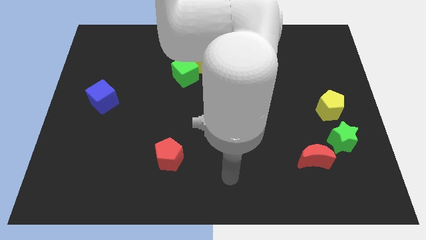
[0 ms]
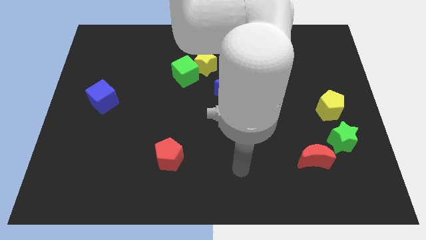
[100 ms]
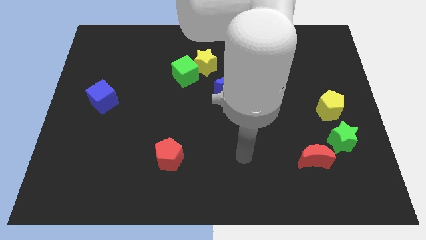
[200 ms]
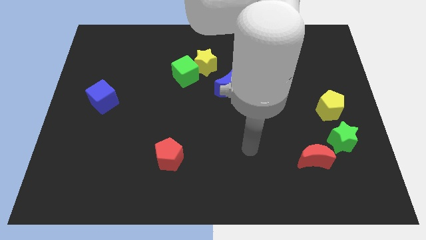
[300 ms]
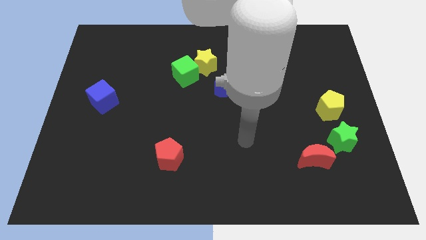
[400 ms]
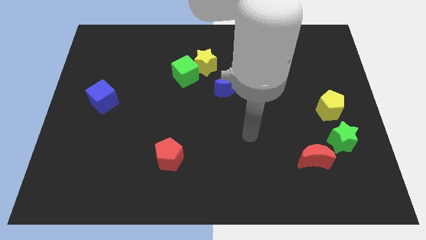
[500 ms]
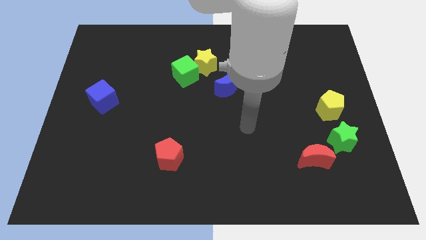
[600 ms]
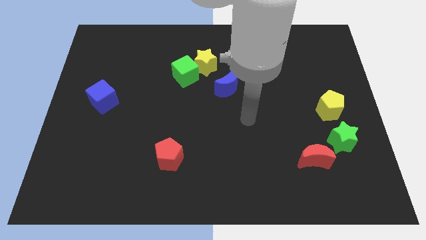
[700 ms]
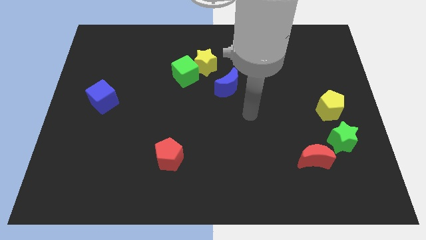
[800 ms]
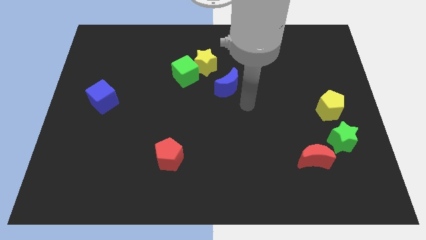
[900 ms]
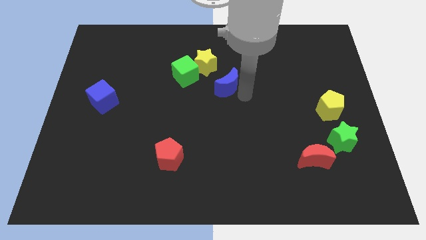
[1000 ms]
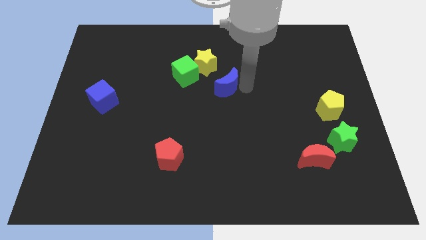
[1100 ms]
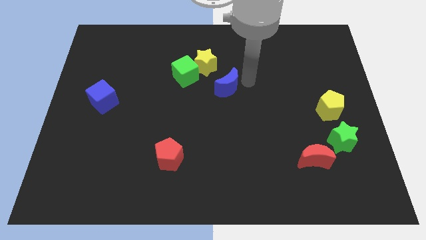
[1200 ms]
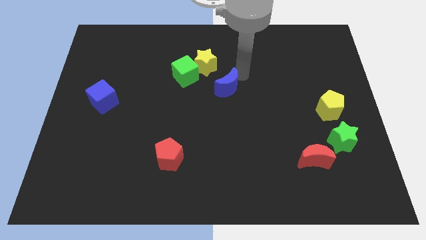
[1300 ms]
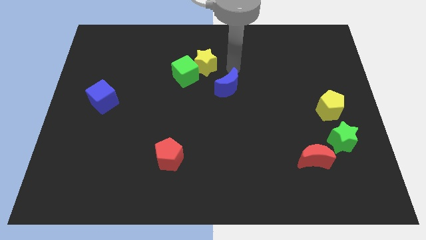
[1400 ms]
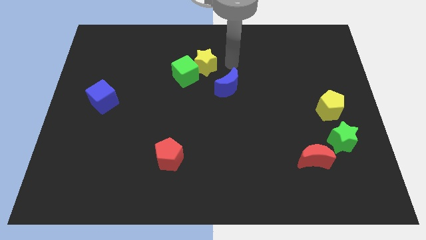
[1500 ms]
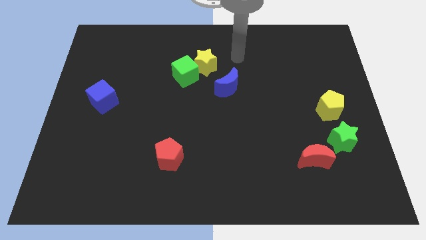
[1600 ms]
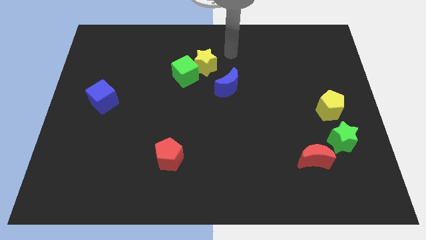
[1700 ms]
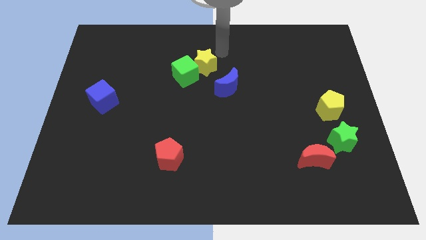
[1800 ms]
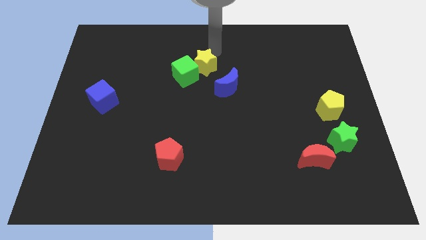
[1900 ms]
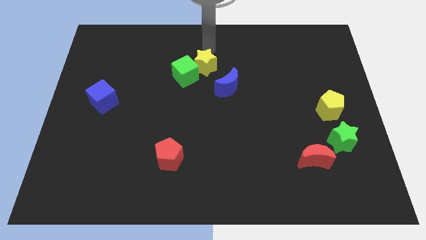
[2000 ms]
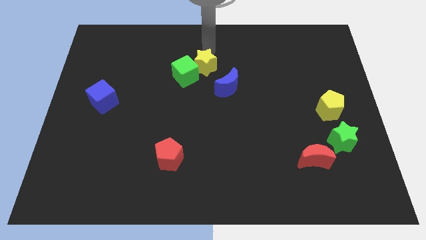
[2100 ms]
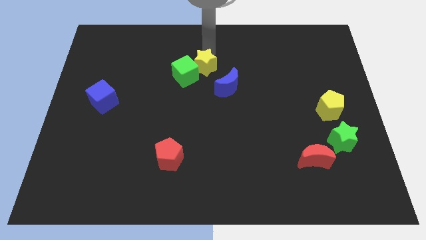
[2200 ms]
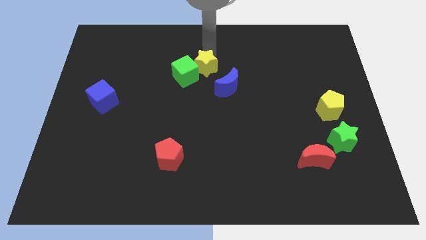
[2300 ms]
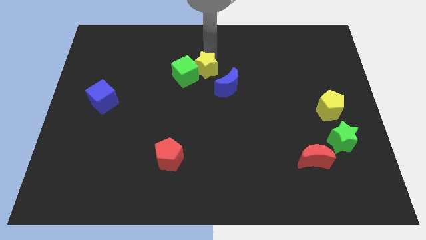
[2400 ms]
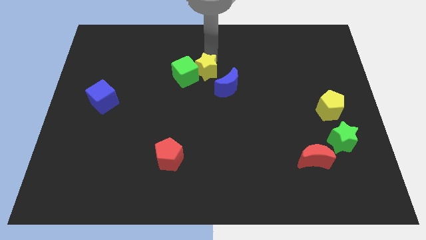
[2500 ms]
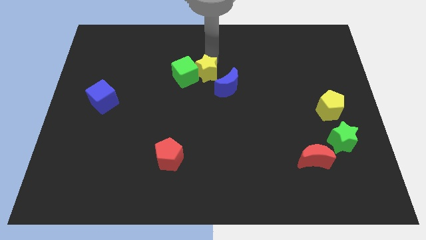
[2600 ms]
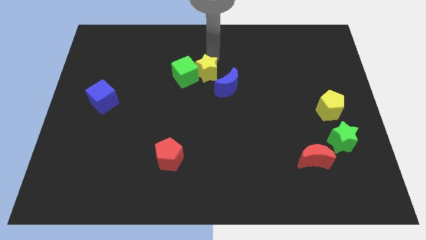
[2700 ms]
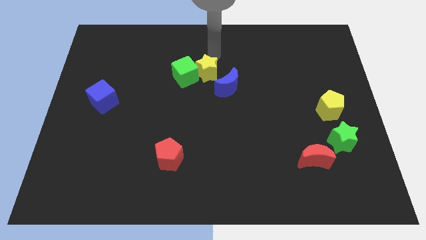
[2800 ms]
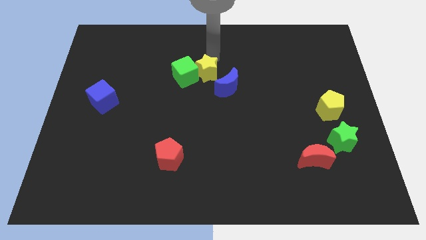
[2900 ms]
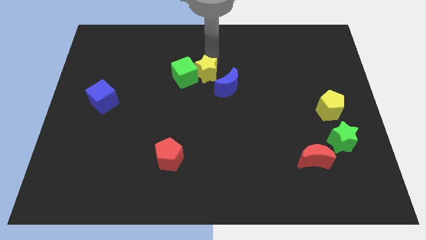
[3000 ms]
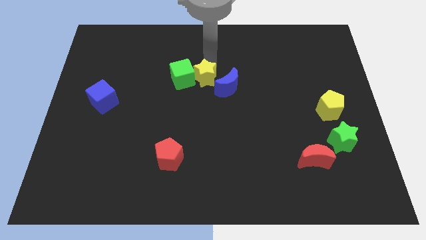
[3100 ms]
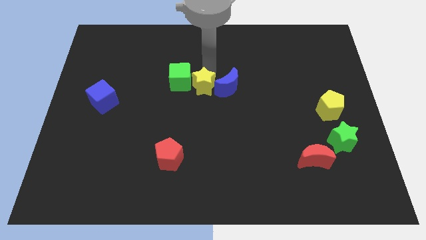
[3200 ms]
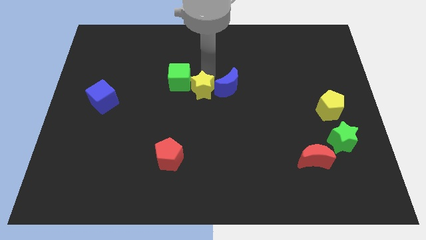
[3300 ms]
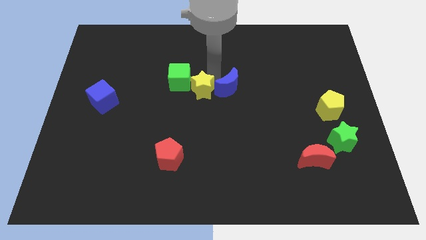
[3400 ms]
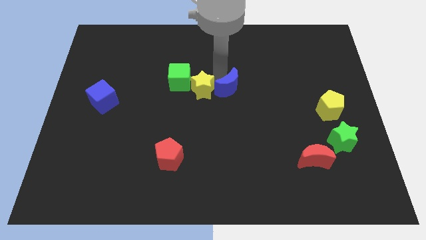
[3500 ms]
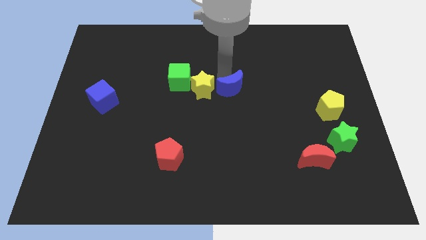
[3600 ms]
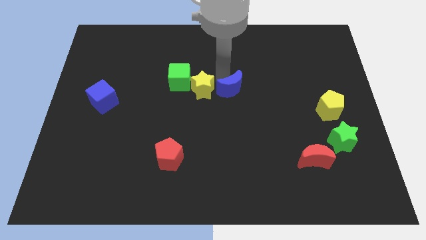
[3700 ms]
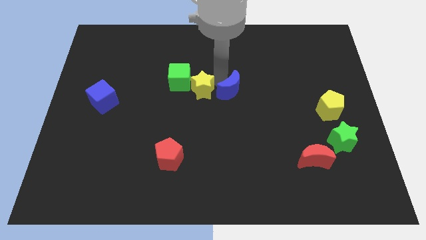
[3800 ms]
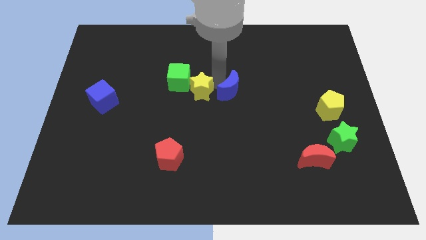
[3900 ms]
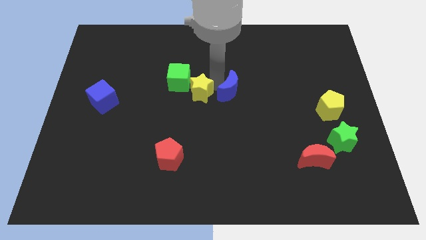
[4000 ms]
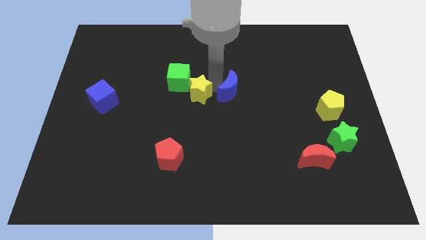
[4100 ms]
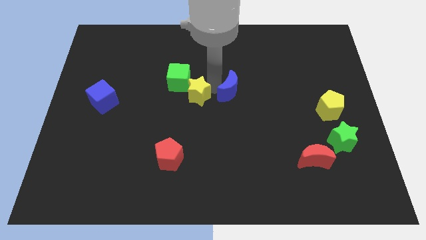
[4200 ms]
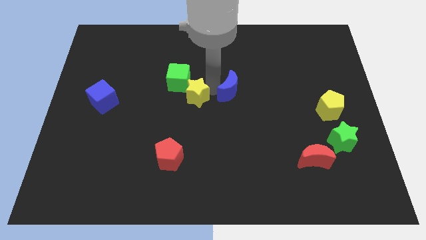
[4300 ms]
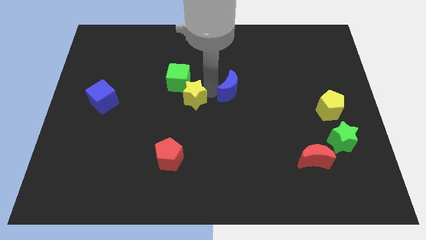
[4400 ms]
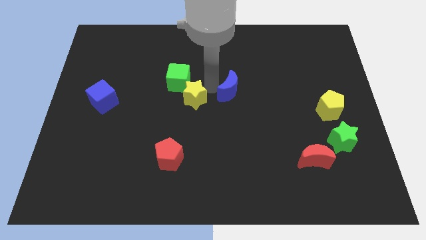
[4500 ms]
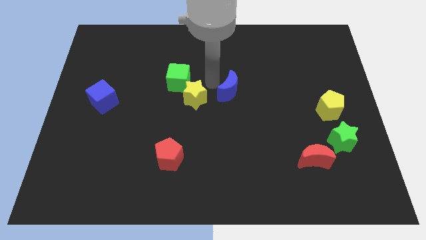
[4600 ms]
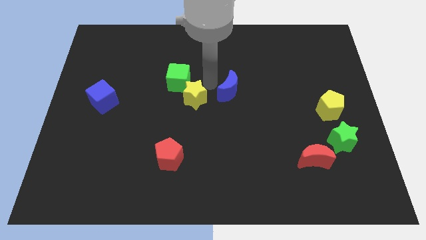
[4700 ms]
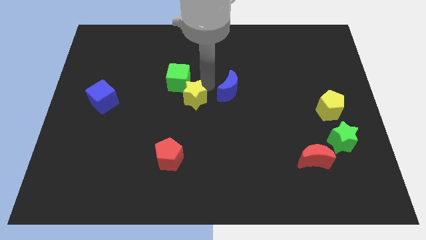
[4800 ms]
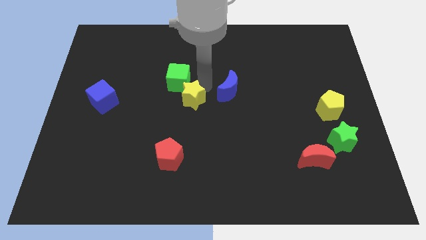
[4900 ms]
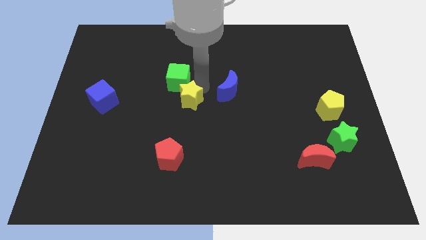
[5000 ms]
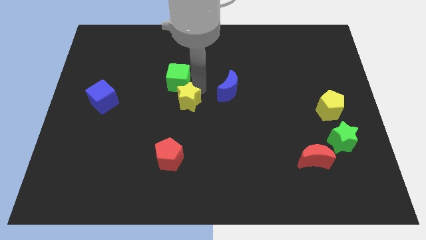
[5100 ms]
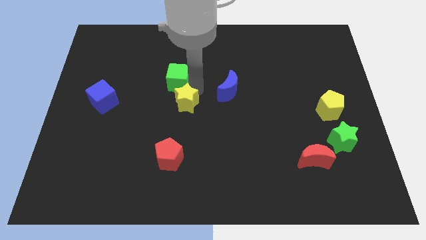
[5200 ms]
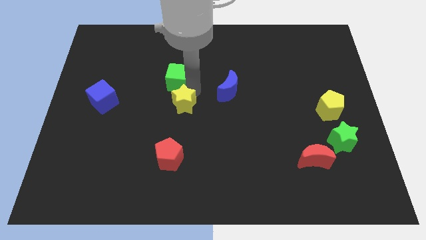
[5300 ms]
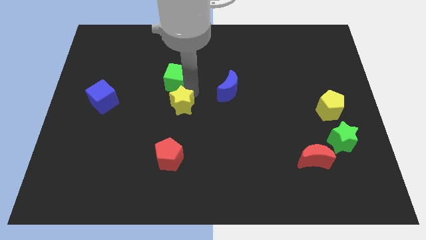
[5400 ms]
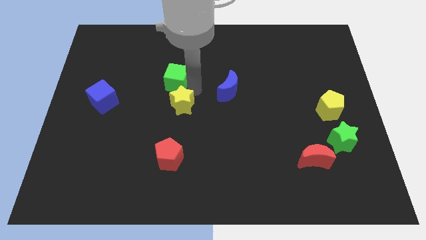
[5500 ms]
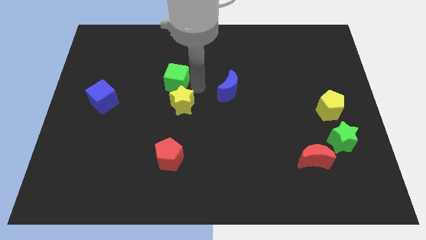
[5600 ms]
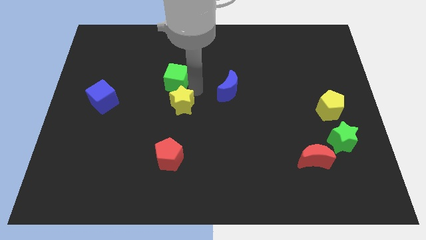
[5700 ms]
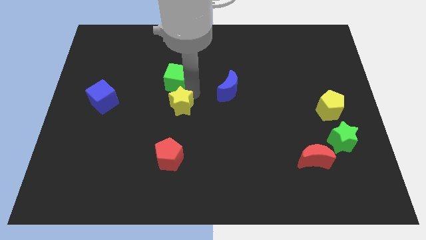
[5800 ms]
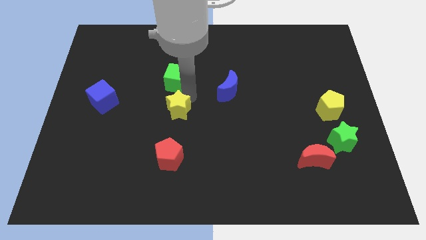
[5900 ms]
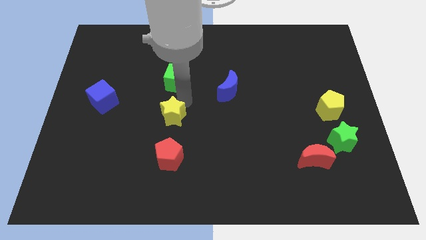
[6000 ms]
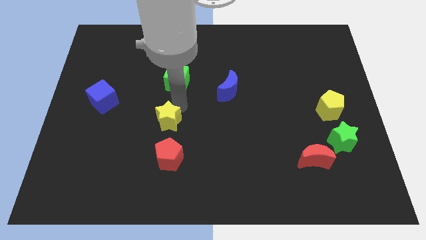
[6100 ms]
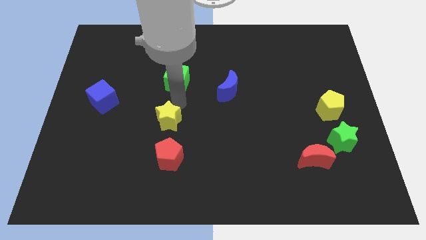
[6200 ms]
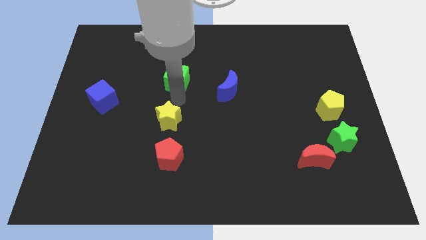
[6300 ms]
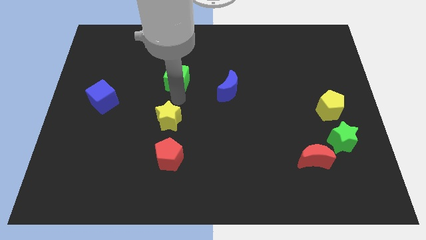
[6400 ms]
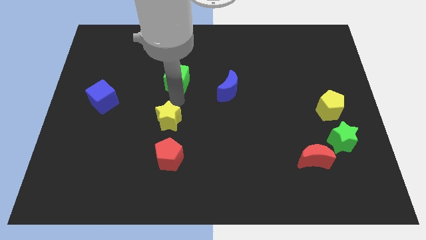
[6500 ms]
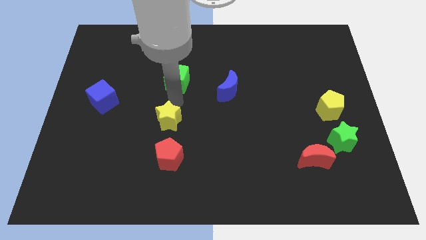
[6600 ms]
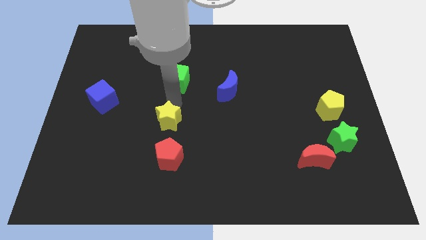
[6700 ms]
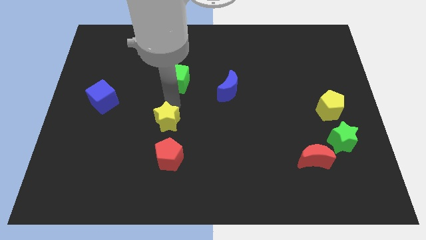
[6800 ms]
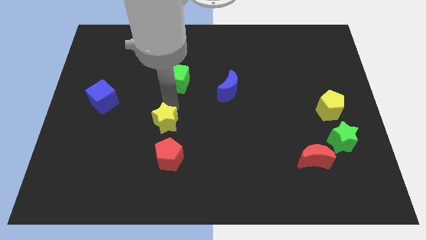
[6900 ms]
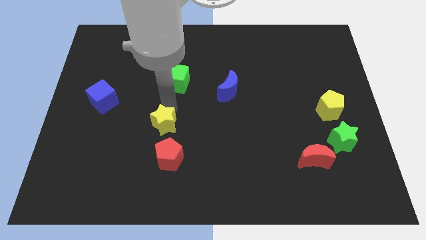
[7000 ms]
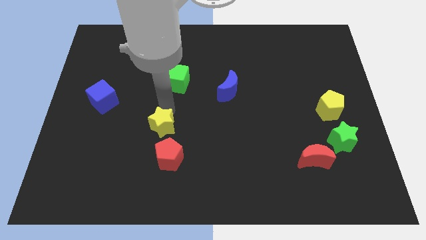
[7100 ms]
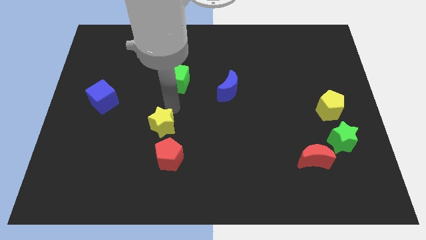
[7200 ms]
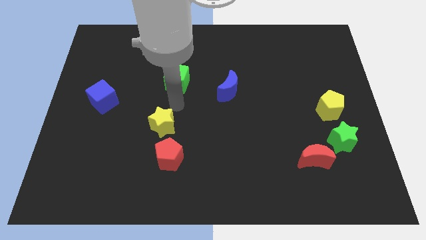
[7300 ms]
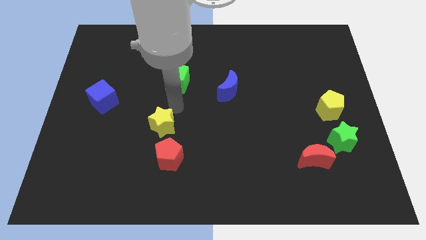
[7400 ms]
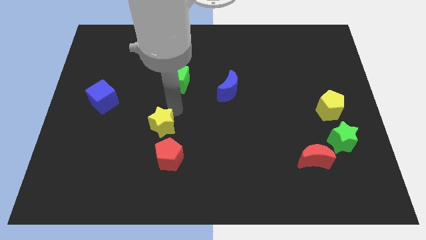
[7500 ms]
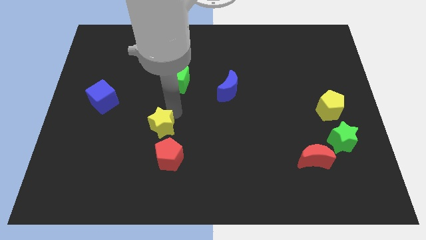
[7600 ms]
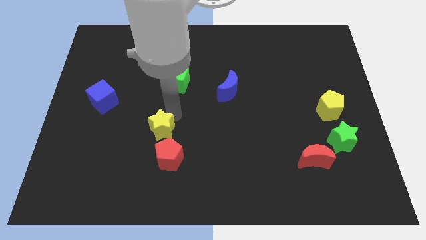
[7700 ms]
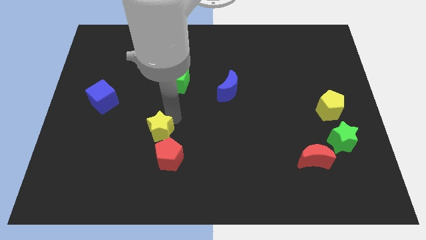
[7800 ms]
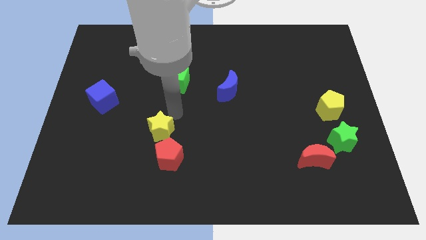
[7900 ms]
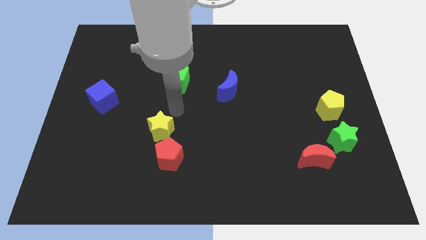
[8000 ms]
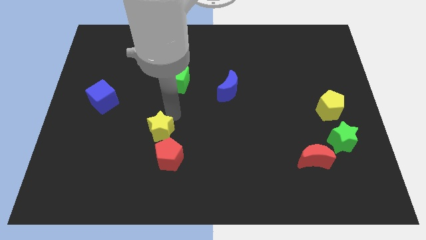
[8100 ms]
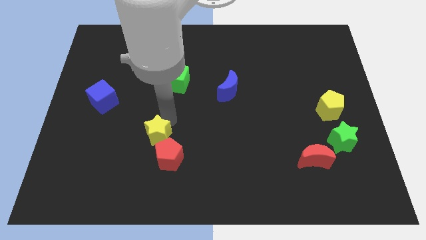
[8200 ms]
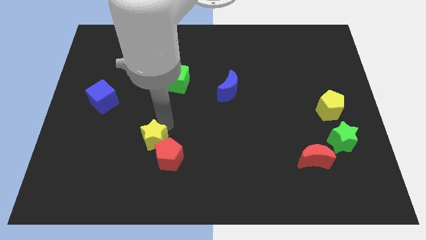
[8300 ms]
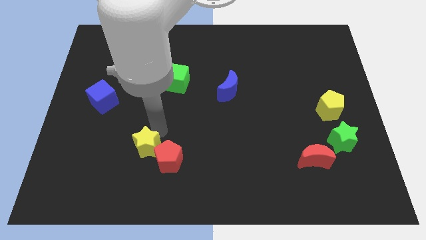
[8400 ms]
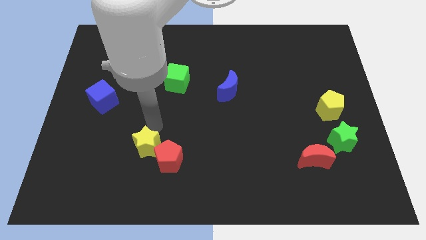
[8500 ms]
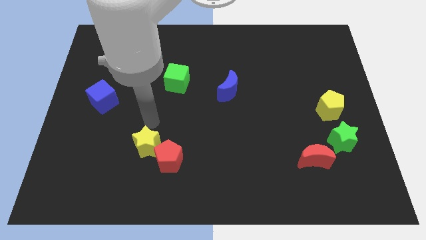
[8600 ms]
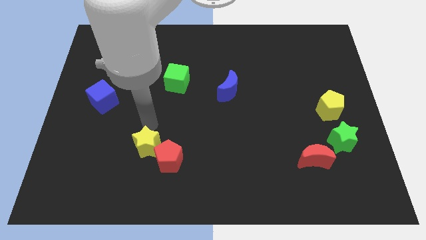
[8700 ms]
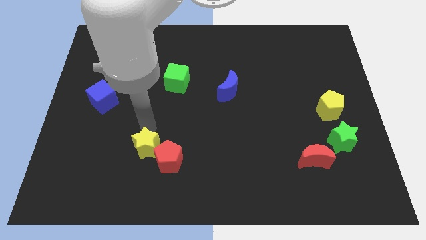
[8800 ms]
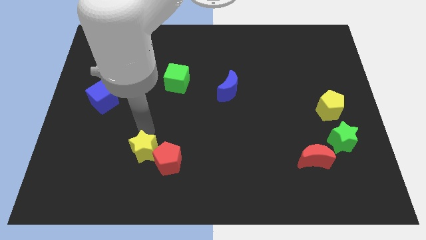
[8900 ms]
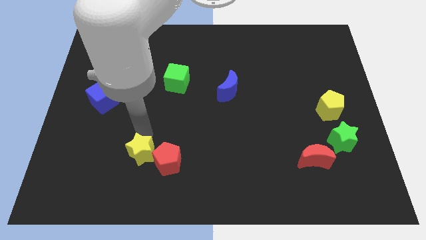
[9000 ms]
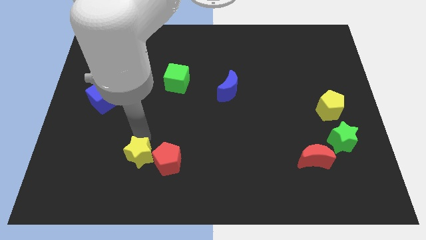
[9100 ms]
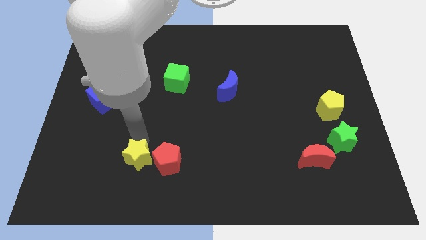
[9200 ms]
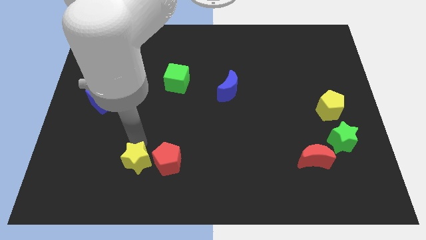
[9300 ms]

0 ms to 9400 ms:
put the yellow star to the bottom left of the red pentagon
